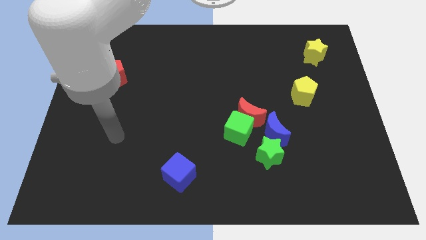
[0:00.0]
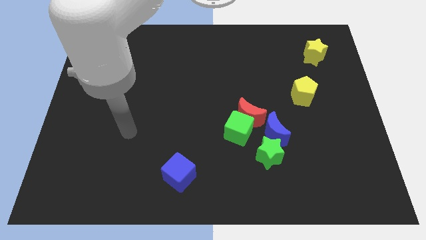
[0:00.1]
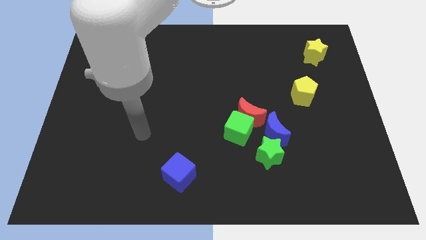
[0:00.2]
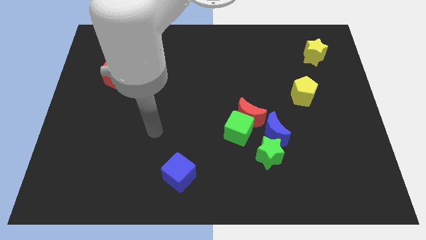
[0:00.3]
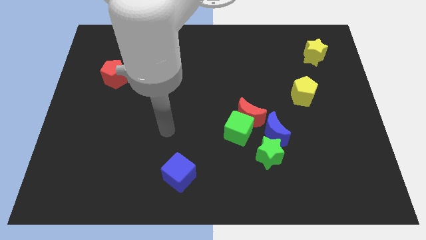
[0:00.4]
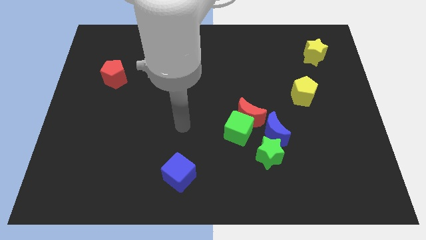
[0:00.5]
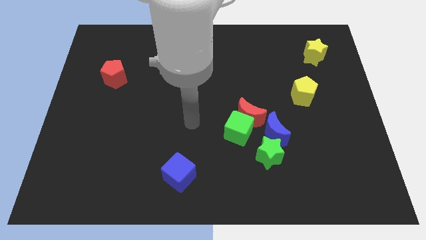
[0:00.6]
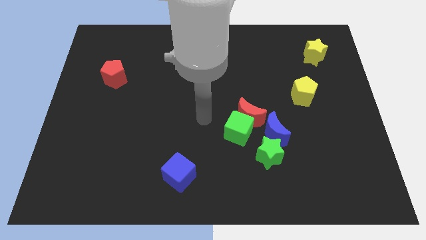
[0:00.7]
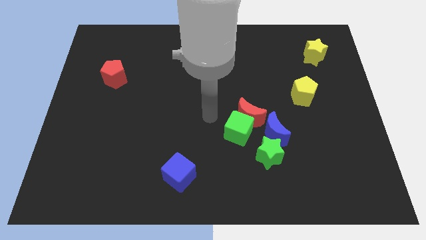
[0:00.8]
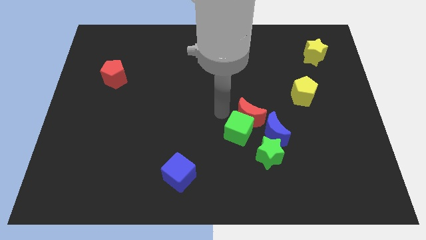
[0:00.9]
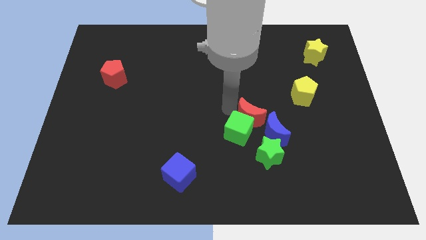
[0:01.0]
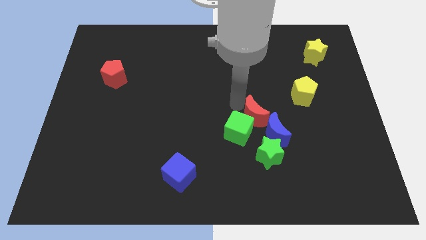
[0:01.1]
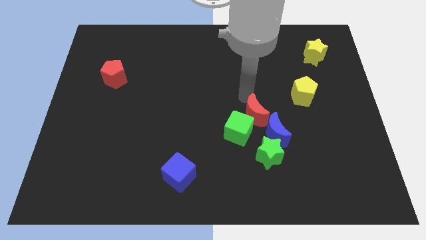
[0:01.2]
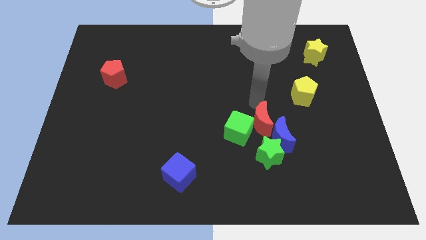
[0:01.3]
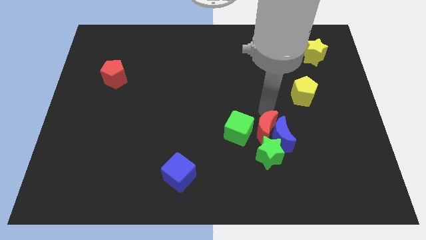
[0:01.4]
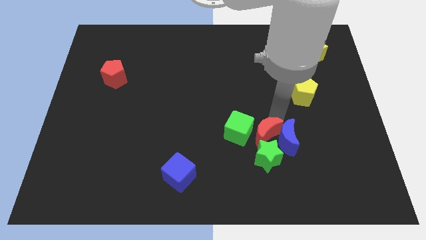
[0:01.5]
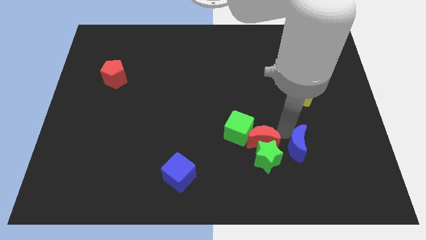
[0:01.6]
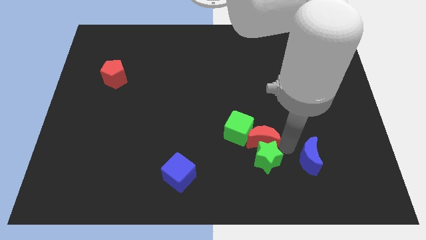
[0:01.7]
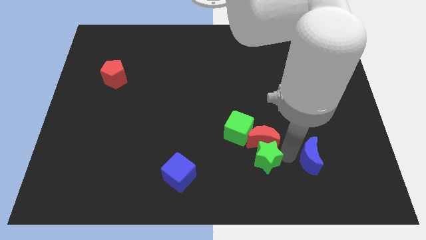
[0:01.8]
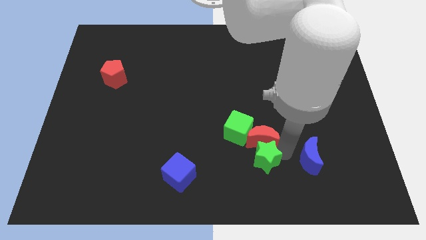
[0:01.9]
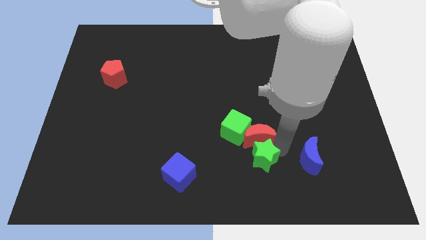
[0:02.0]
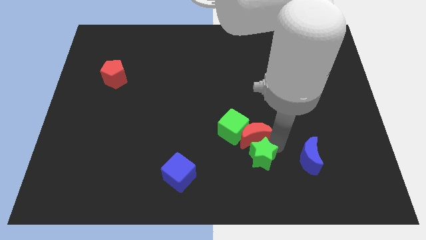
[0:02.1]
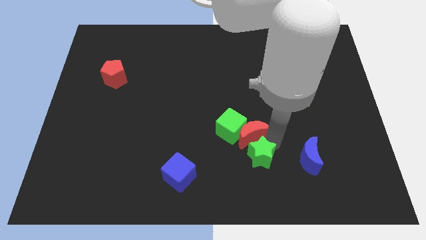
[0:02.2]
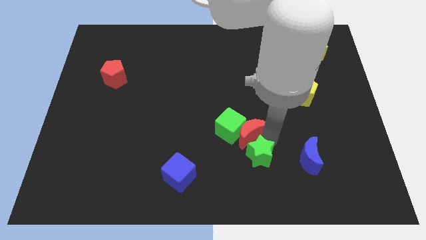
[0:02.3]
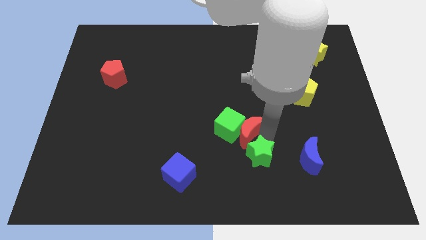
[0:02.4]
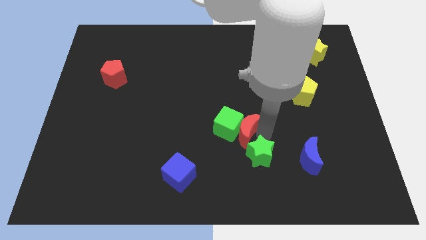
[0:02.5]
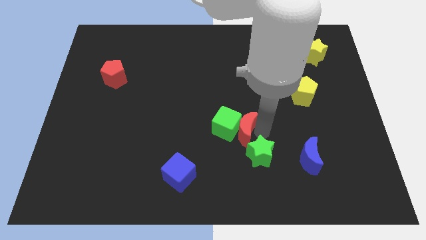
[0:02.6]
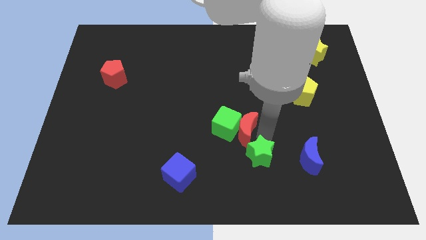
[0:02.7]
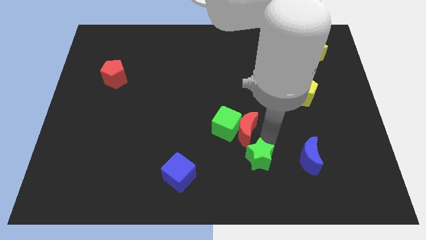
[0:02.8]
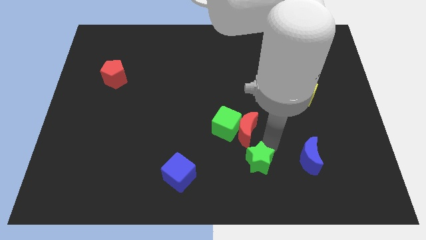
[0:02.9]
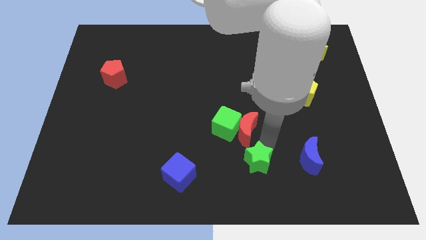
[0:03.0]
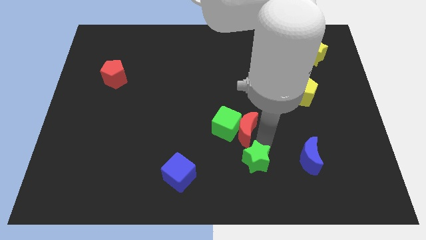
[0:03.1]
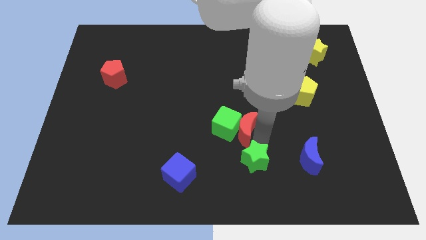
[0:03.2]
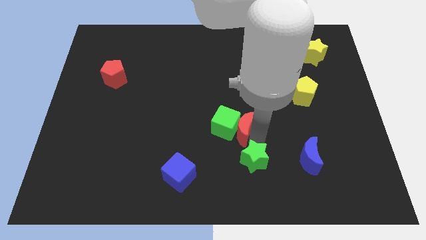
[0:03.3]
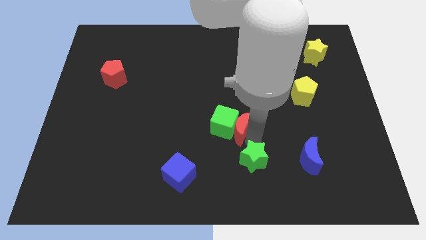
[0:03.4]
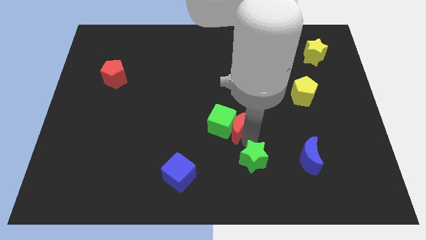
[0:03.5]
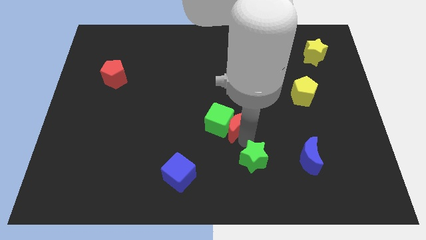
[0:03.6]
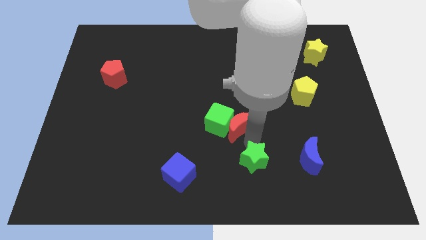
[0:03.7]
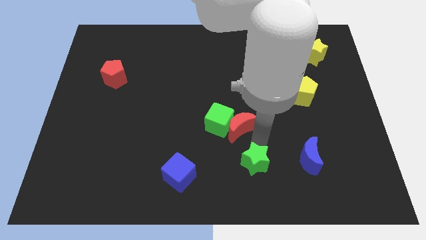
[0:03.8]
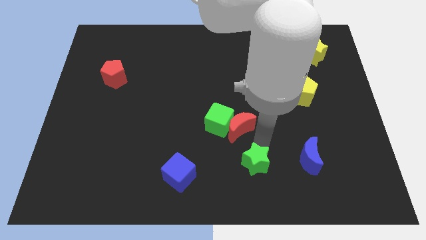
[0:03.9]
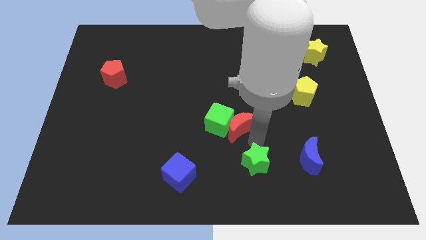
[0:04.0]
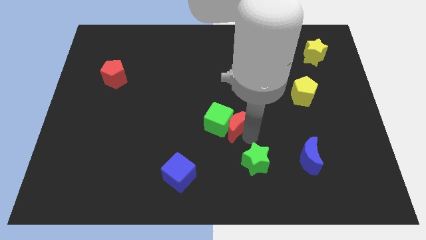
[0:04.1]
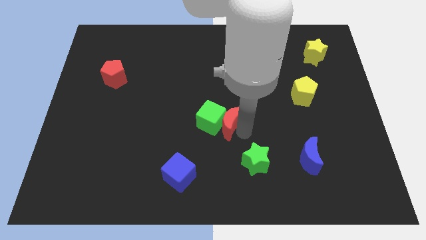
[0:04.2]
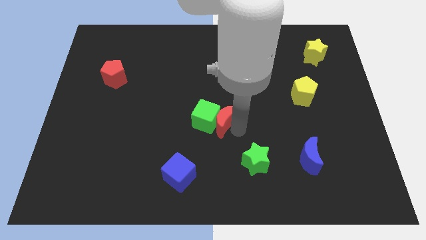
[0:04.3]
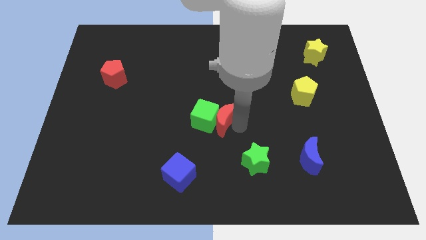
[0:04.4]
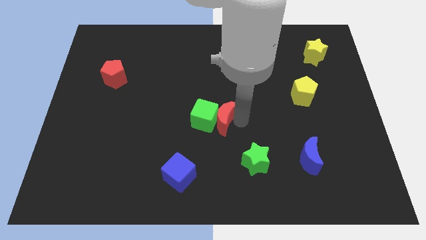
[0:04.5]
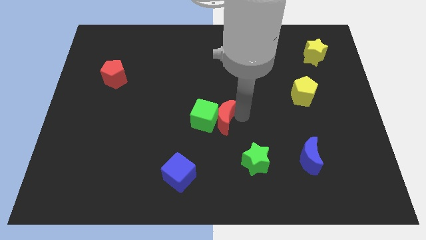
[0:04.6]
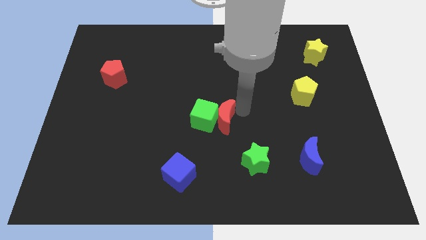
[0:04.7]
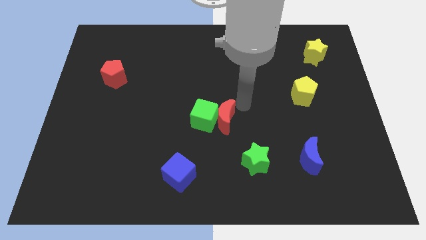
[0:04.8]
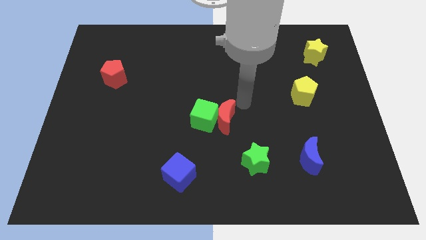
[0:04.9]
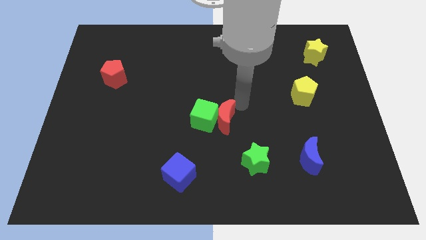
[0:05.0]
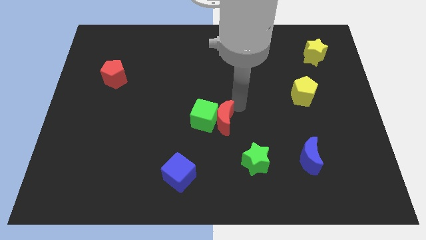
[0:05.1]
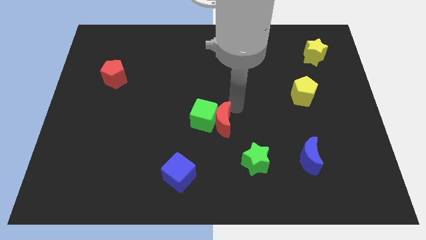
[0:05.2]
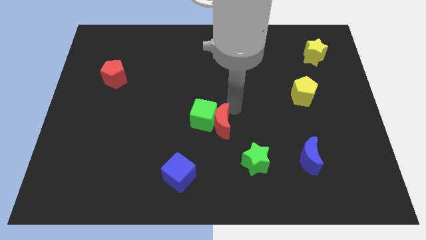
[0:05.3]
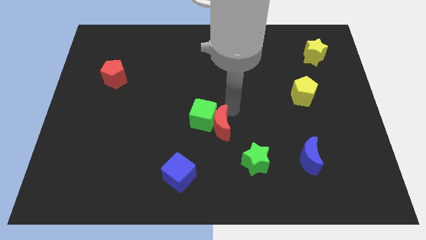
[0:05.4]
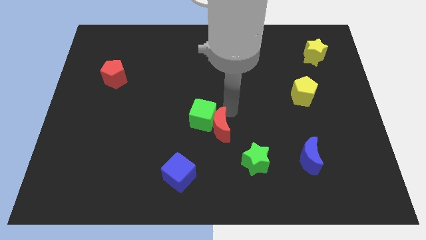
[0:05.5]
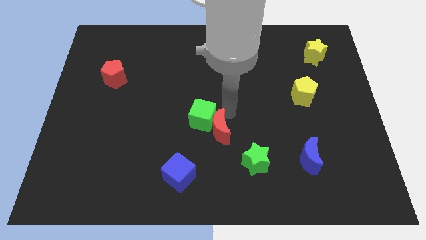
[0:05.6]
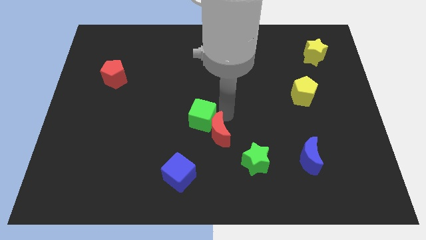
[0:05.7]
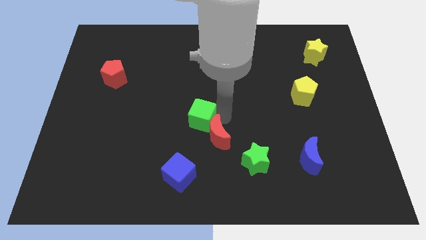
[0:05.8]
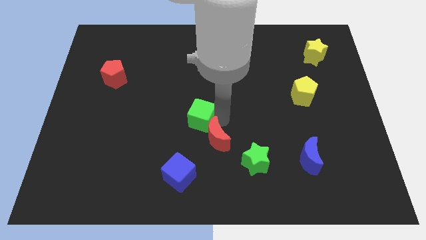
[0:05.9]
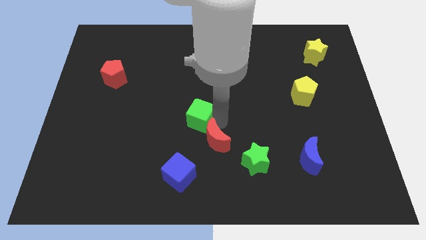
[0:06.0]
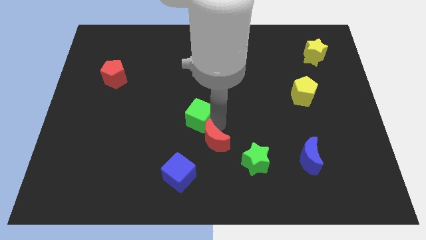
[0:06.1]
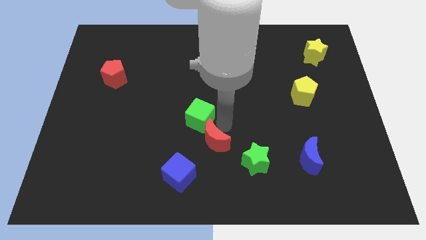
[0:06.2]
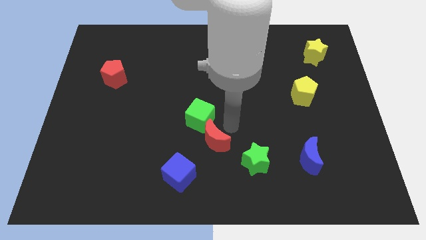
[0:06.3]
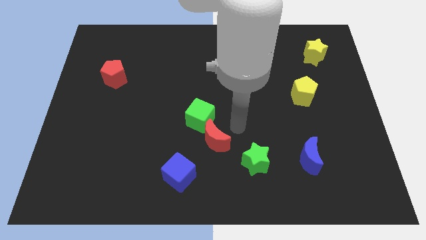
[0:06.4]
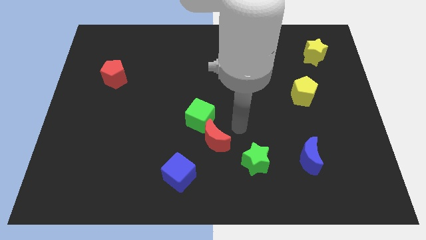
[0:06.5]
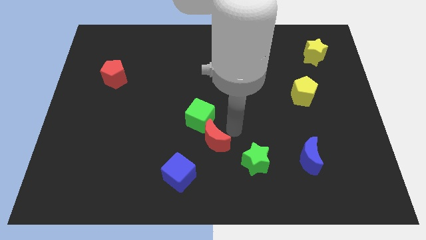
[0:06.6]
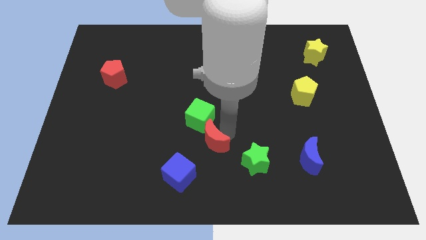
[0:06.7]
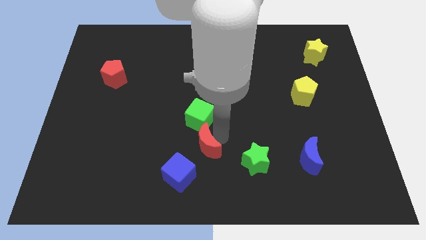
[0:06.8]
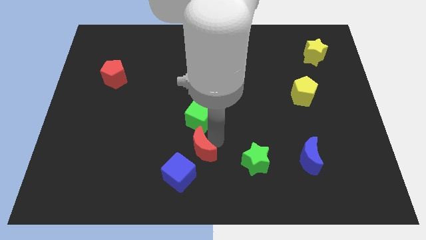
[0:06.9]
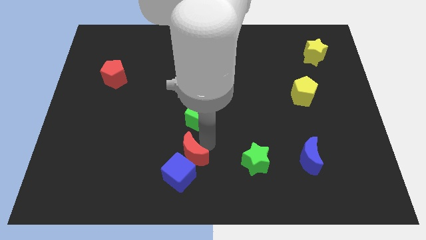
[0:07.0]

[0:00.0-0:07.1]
slide the red moon towards the blue cube

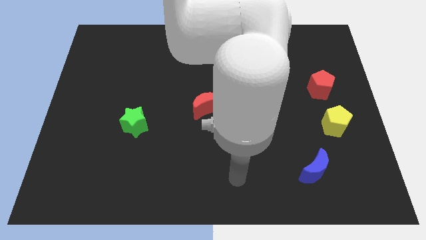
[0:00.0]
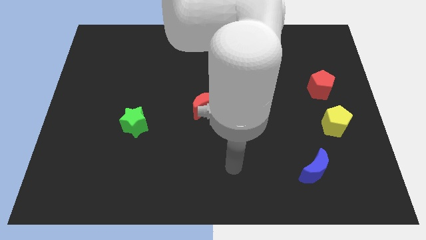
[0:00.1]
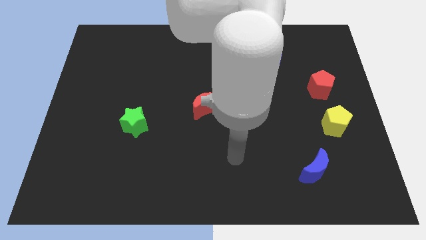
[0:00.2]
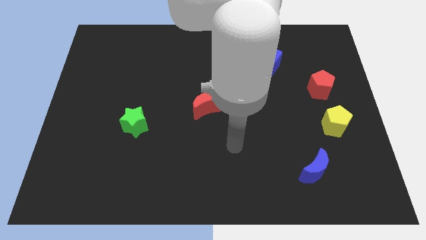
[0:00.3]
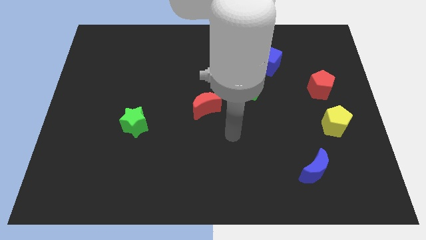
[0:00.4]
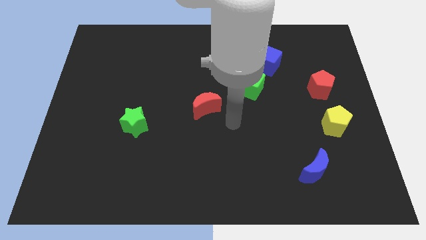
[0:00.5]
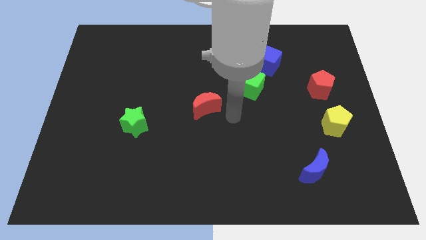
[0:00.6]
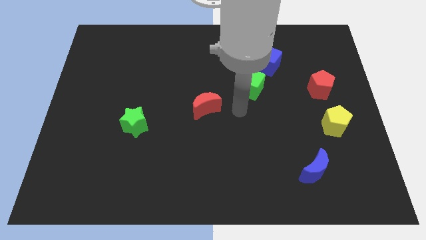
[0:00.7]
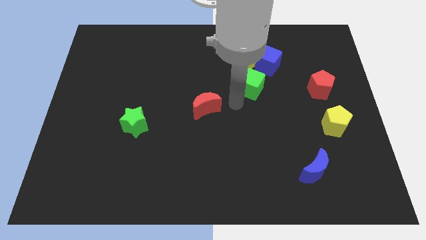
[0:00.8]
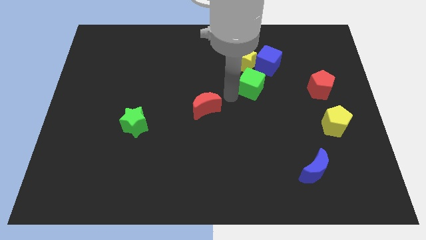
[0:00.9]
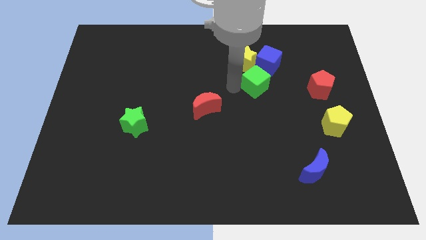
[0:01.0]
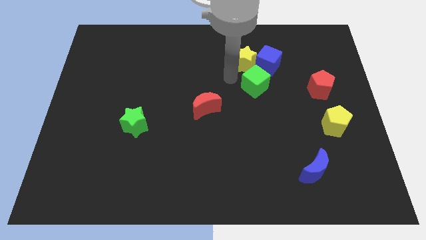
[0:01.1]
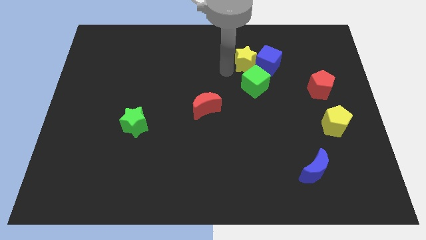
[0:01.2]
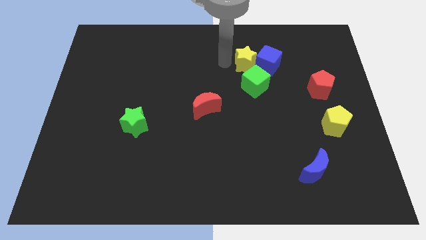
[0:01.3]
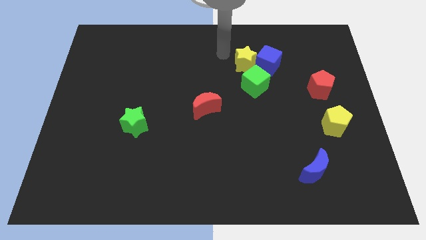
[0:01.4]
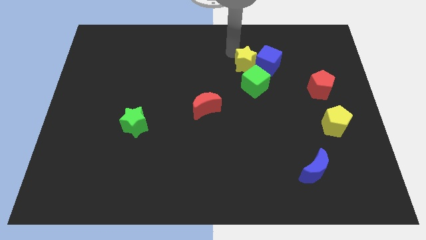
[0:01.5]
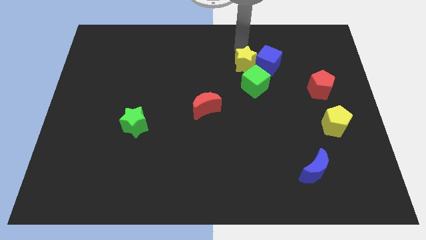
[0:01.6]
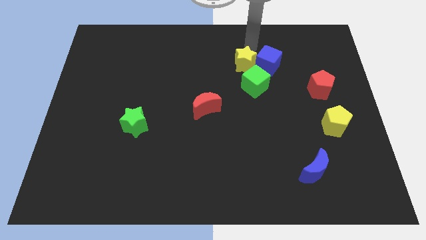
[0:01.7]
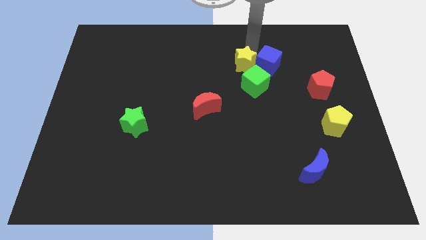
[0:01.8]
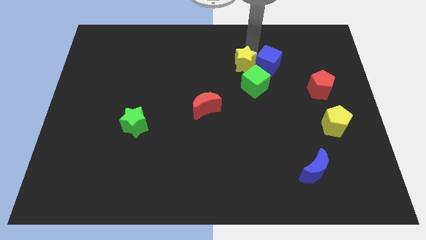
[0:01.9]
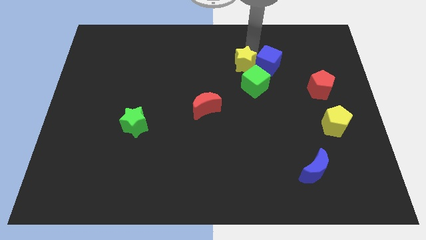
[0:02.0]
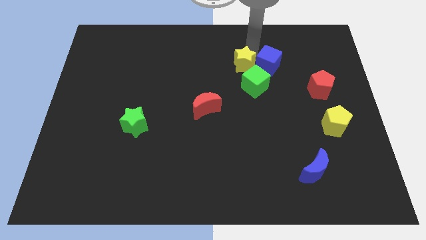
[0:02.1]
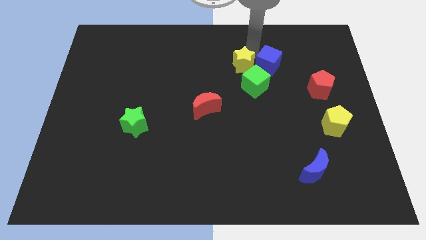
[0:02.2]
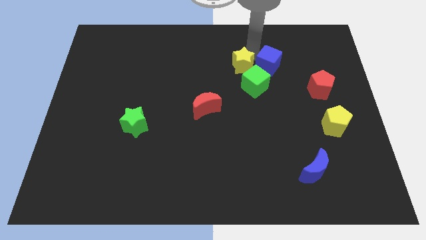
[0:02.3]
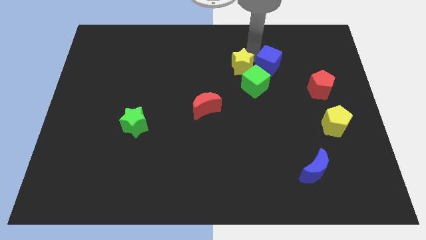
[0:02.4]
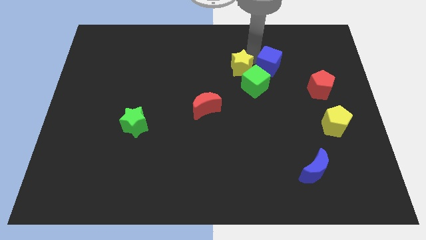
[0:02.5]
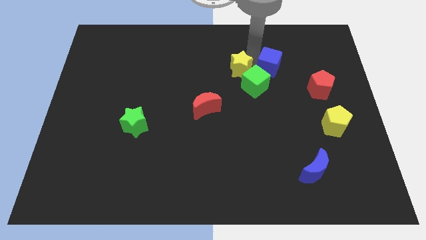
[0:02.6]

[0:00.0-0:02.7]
slide the yellow star close to the green cube
